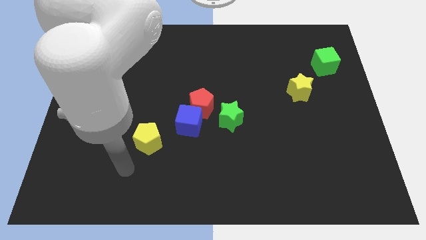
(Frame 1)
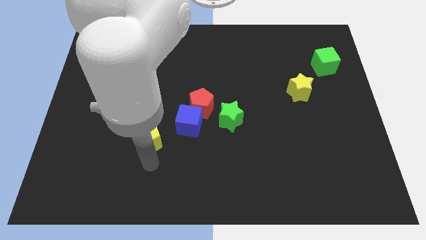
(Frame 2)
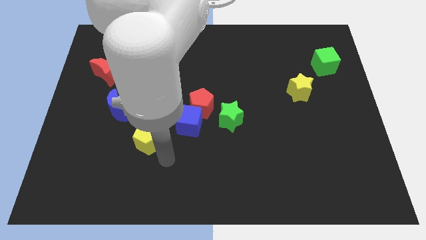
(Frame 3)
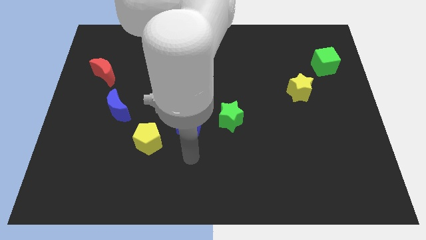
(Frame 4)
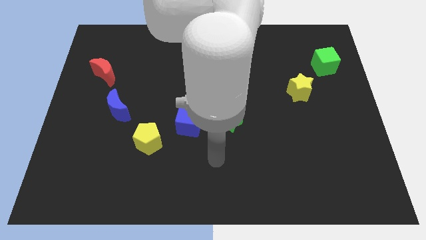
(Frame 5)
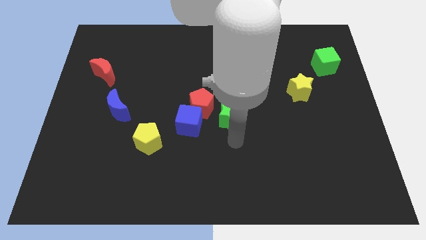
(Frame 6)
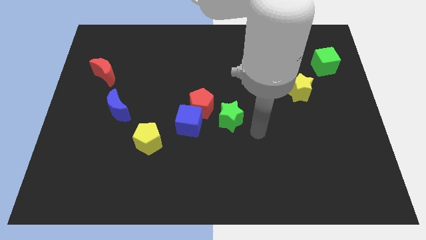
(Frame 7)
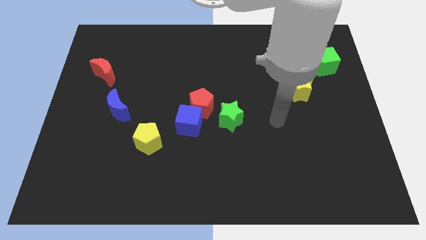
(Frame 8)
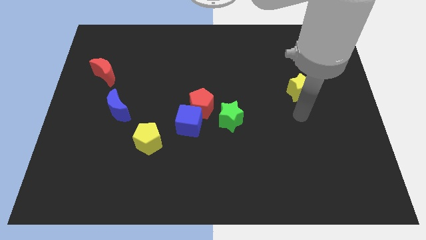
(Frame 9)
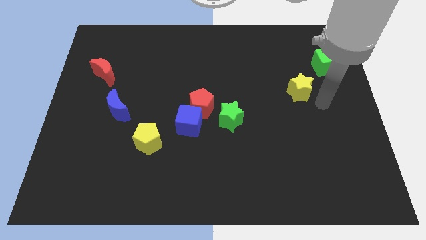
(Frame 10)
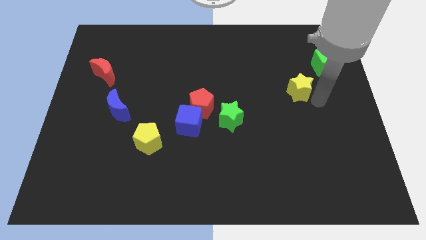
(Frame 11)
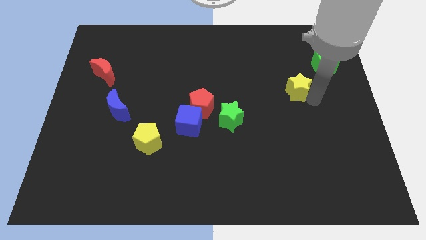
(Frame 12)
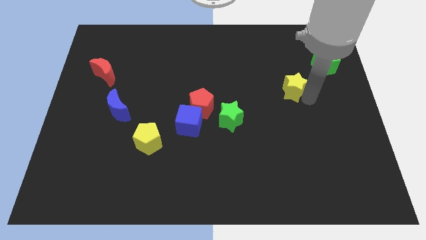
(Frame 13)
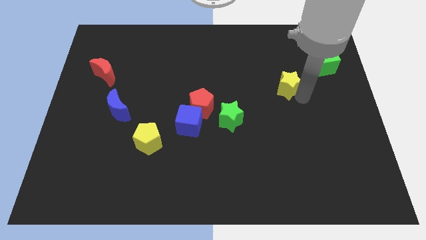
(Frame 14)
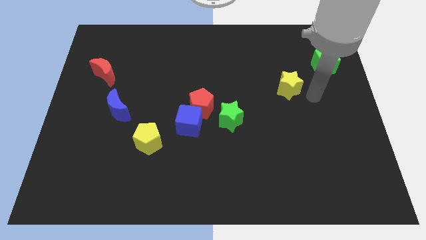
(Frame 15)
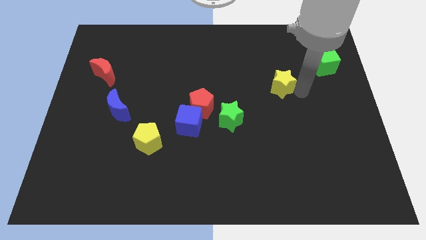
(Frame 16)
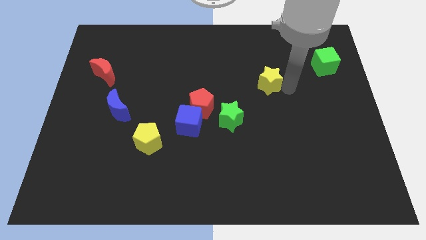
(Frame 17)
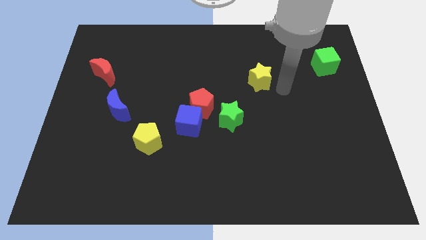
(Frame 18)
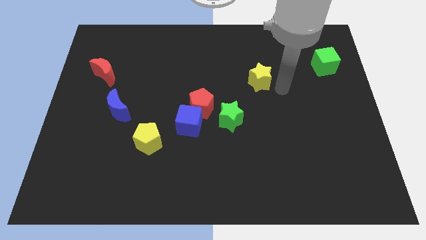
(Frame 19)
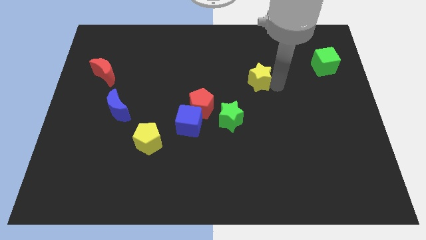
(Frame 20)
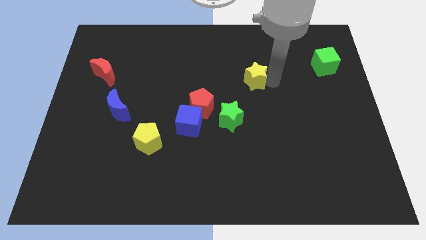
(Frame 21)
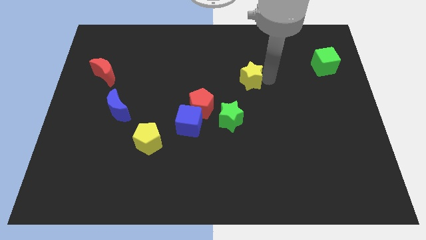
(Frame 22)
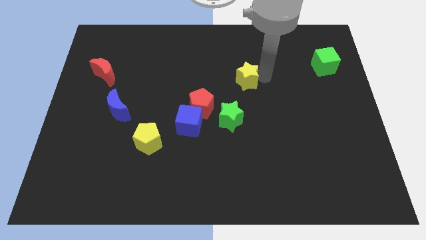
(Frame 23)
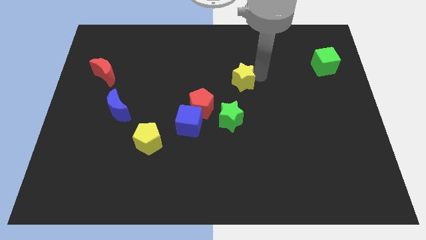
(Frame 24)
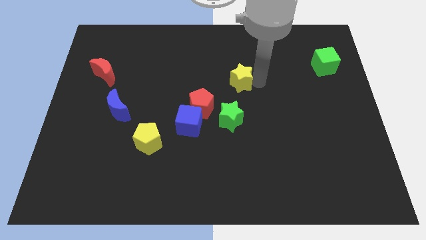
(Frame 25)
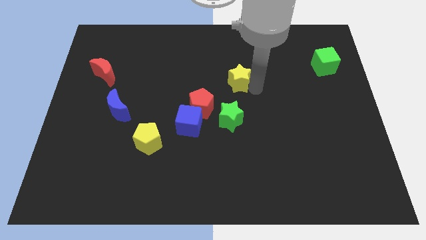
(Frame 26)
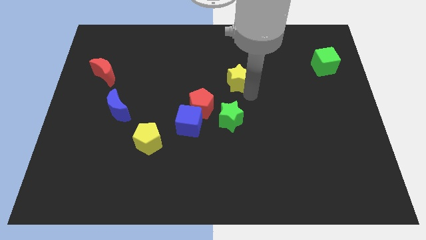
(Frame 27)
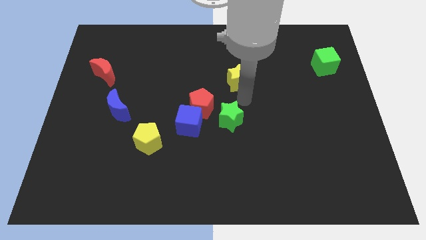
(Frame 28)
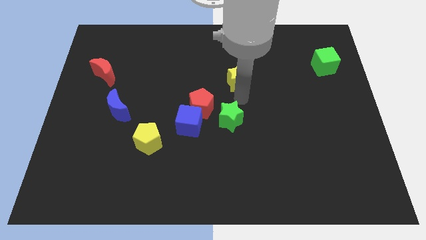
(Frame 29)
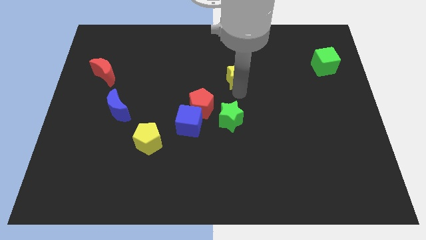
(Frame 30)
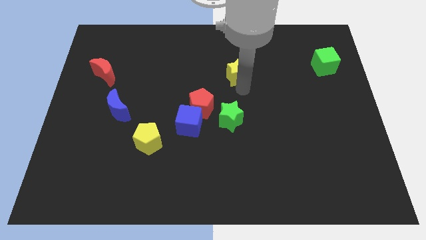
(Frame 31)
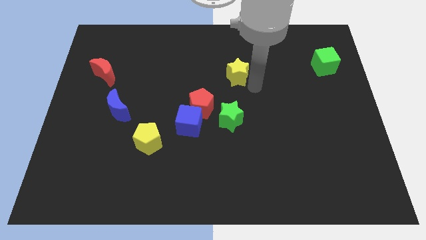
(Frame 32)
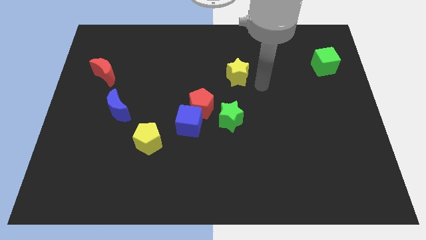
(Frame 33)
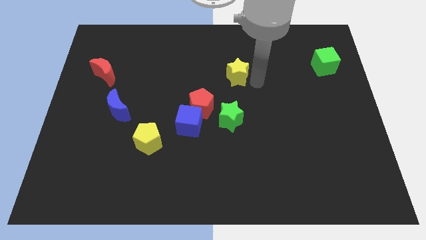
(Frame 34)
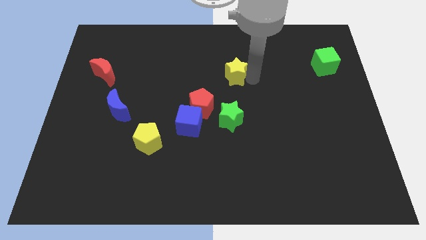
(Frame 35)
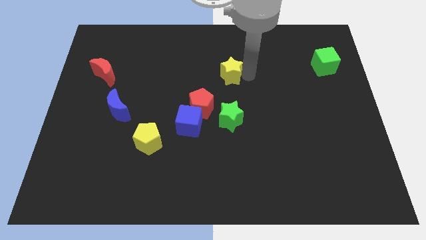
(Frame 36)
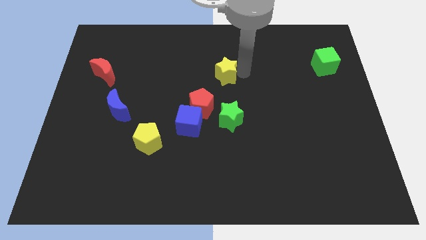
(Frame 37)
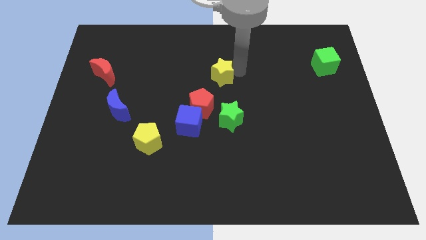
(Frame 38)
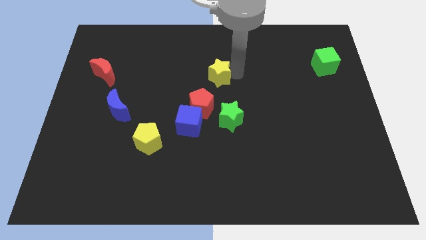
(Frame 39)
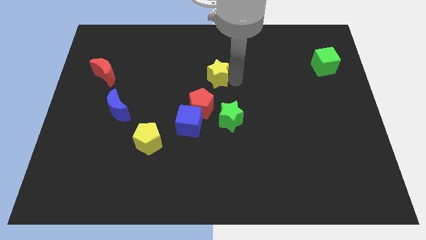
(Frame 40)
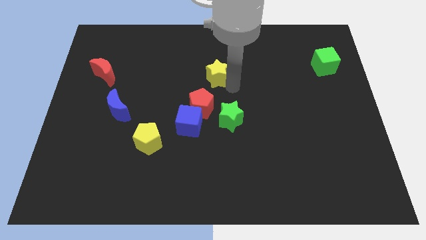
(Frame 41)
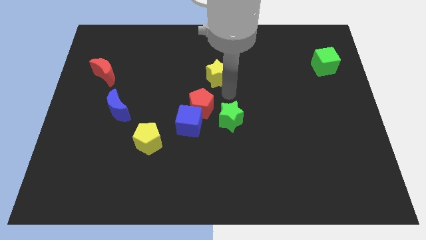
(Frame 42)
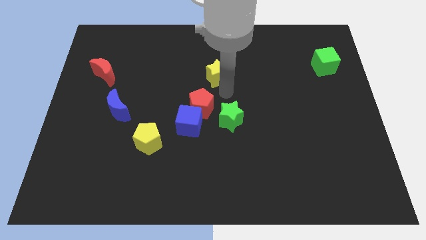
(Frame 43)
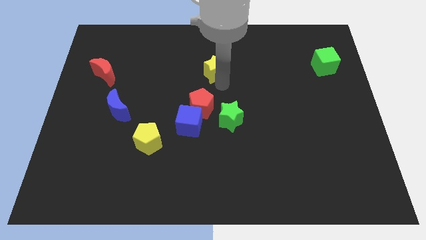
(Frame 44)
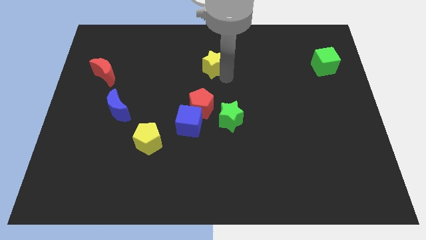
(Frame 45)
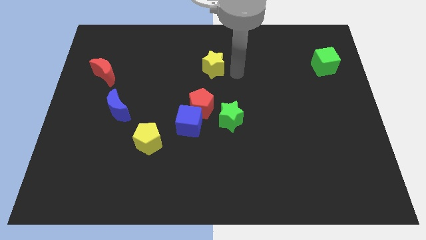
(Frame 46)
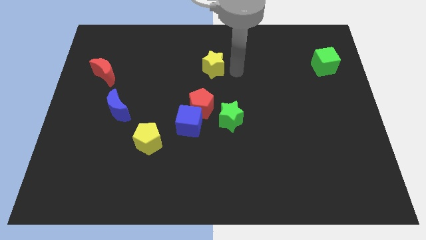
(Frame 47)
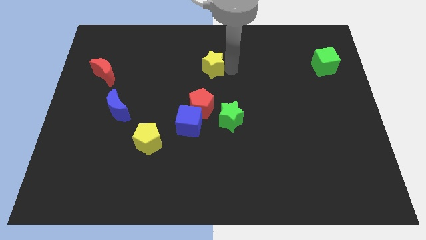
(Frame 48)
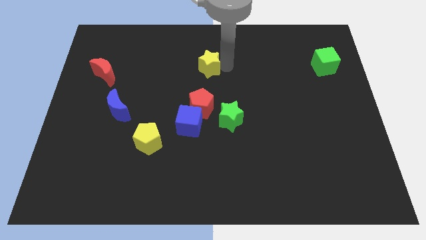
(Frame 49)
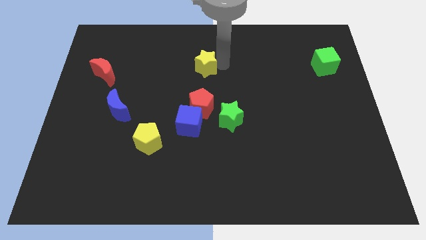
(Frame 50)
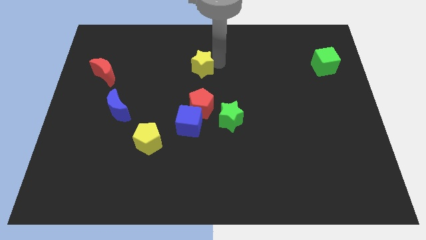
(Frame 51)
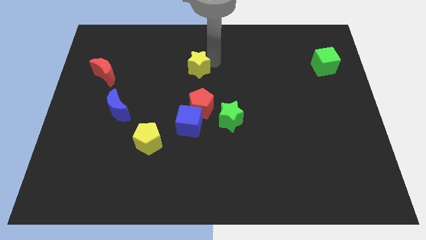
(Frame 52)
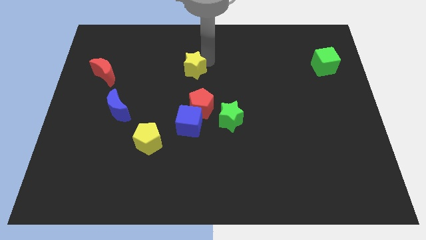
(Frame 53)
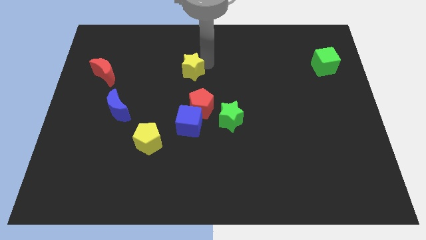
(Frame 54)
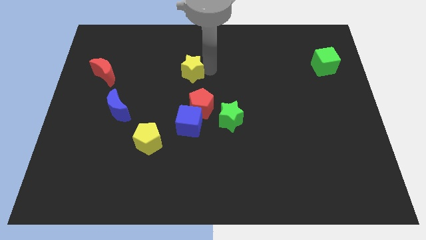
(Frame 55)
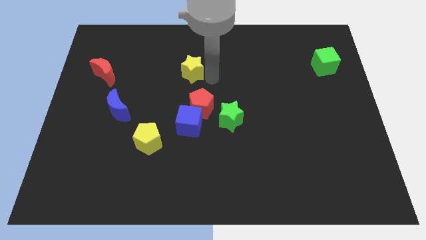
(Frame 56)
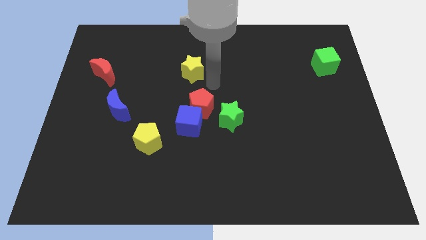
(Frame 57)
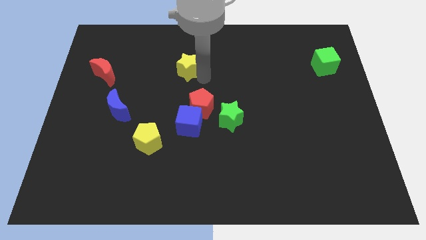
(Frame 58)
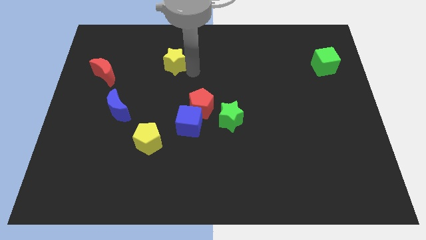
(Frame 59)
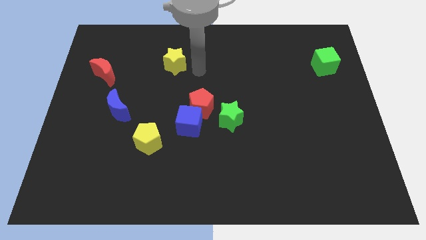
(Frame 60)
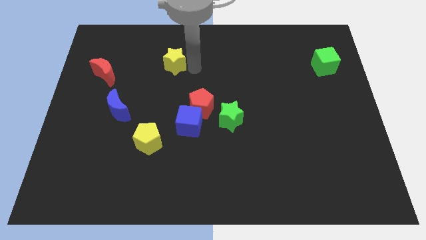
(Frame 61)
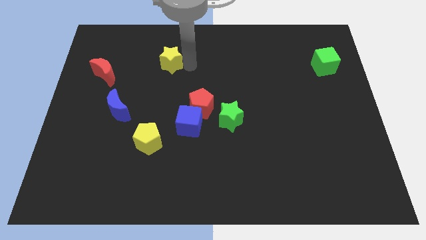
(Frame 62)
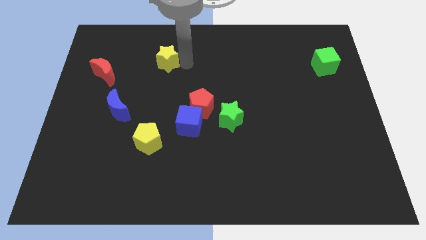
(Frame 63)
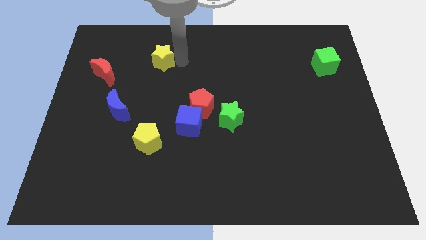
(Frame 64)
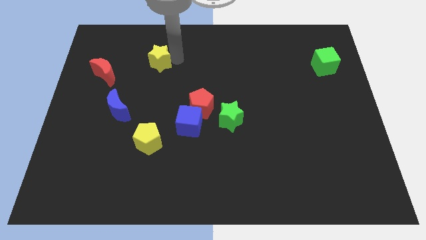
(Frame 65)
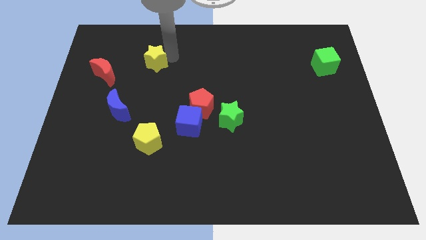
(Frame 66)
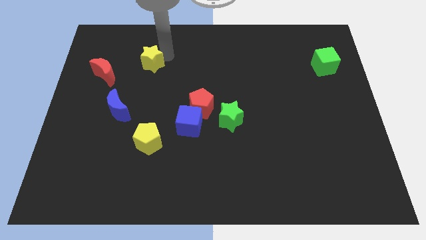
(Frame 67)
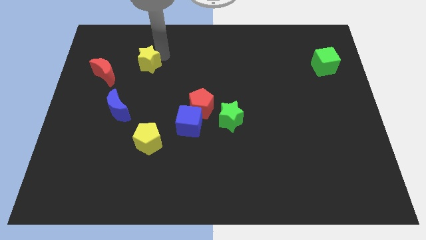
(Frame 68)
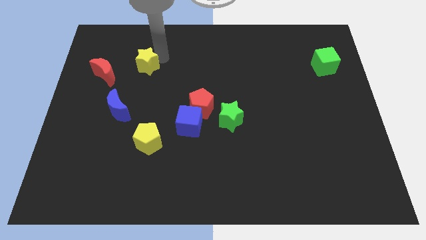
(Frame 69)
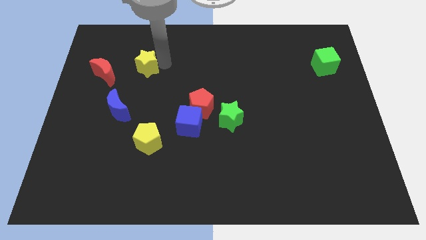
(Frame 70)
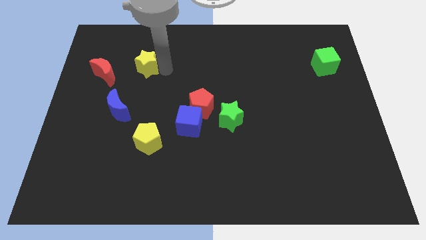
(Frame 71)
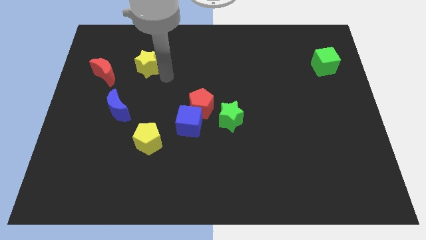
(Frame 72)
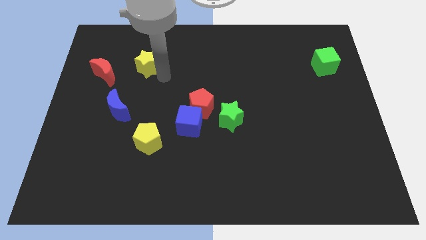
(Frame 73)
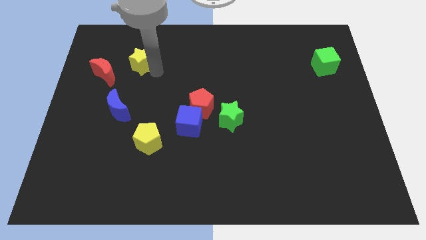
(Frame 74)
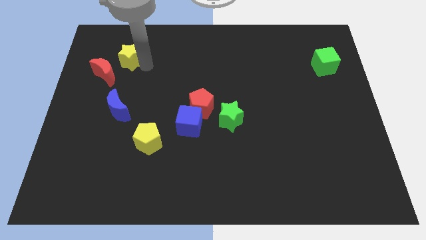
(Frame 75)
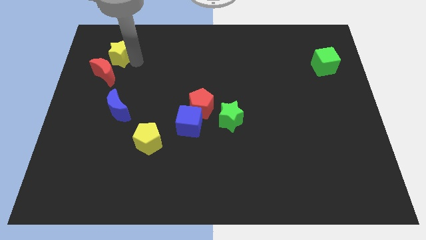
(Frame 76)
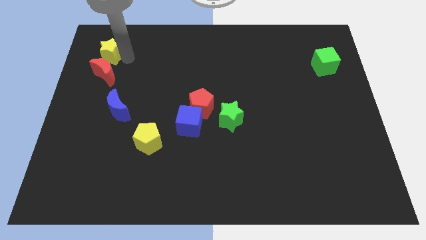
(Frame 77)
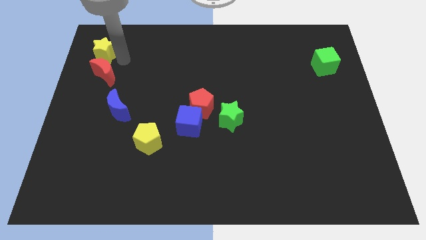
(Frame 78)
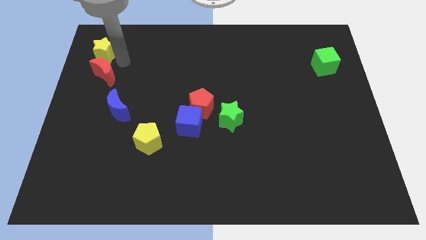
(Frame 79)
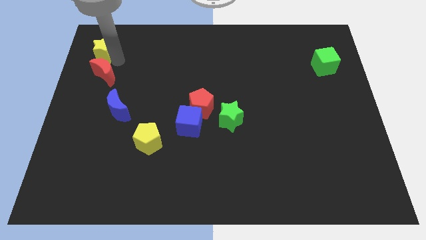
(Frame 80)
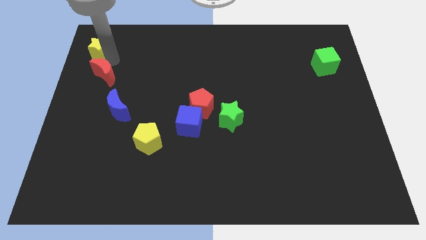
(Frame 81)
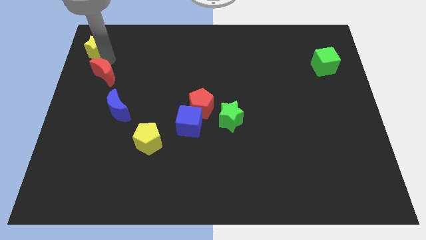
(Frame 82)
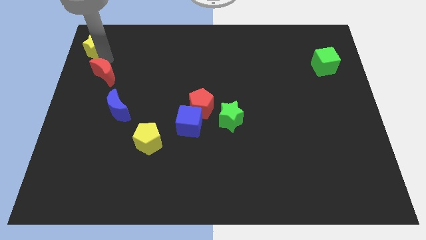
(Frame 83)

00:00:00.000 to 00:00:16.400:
push the yellow star to the top left of the board
